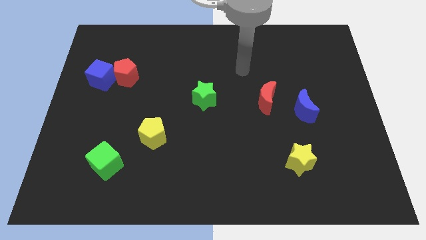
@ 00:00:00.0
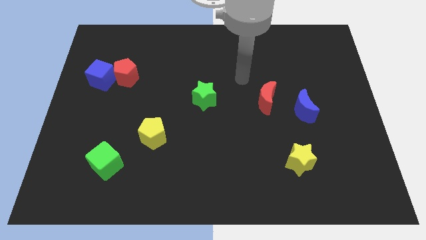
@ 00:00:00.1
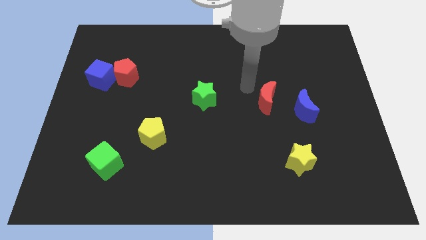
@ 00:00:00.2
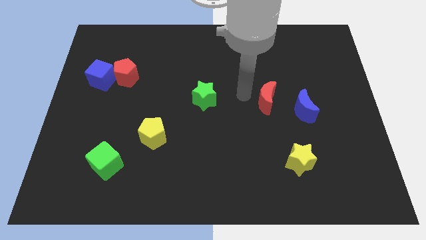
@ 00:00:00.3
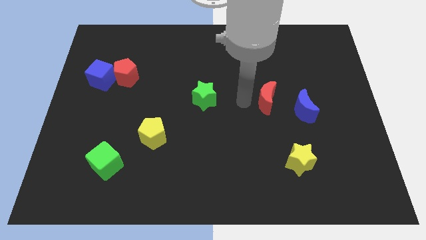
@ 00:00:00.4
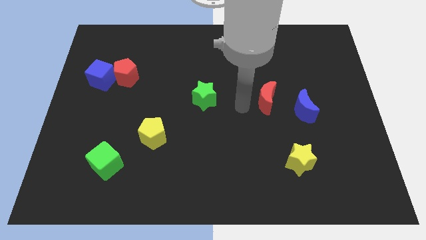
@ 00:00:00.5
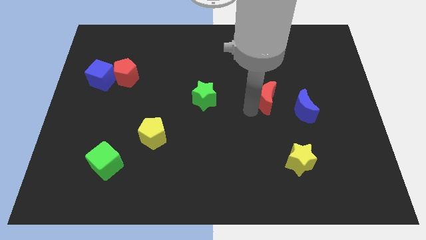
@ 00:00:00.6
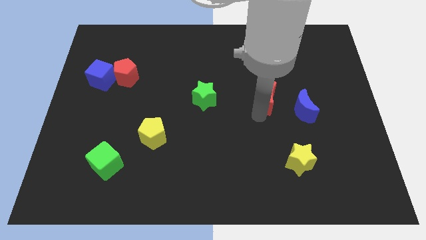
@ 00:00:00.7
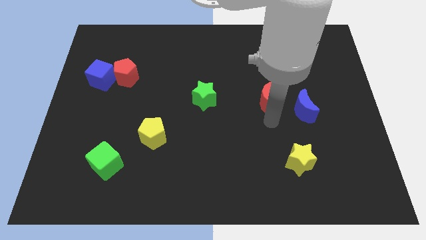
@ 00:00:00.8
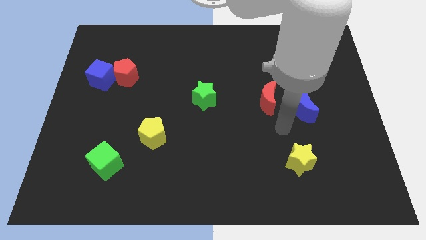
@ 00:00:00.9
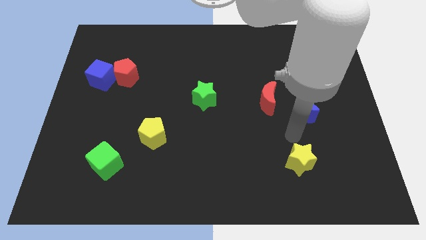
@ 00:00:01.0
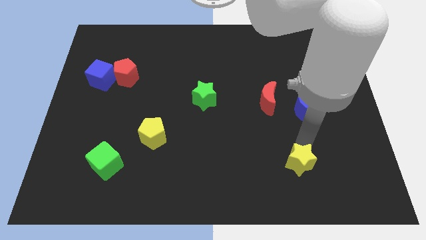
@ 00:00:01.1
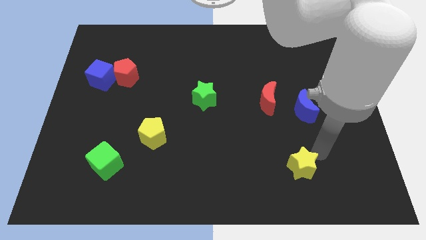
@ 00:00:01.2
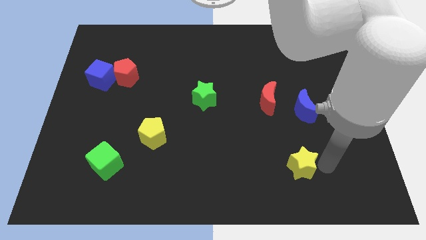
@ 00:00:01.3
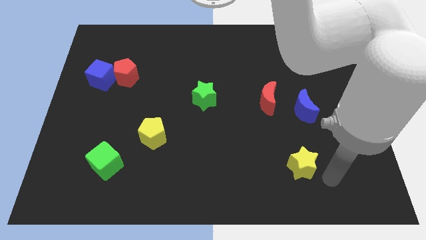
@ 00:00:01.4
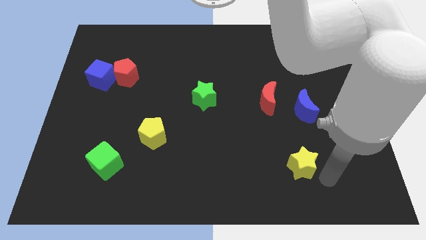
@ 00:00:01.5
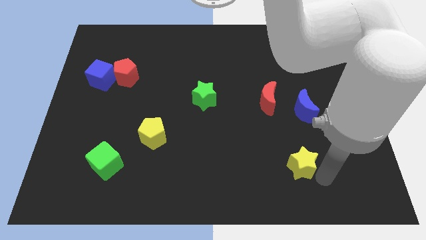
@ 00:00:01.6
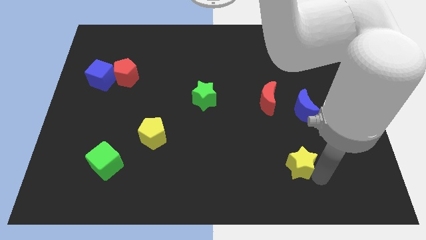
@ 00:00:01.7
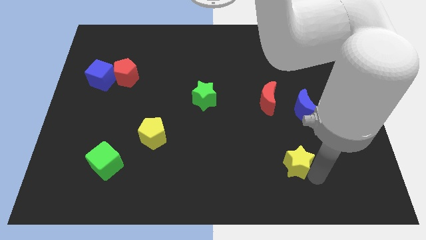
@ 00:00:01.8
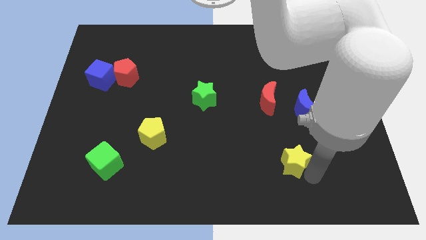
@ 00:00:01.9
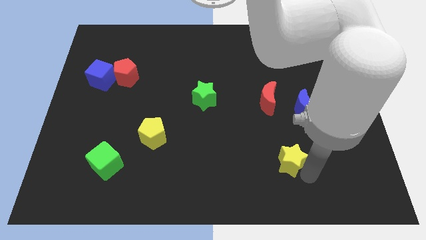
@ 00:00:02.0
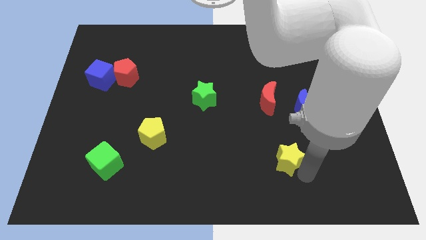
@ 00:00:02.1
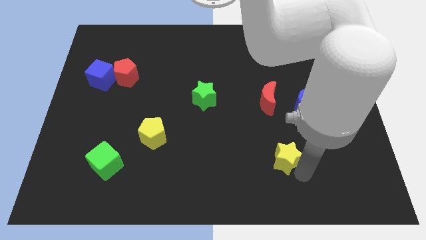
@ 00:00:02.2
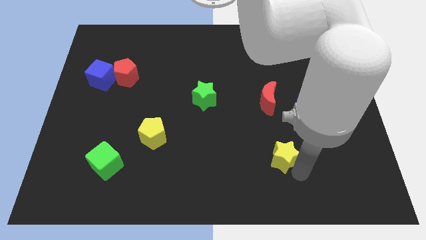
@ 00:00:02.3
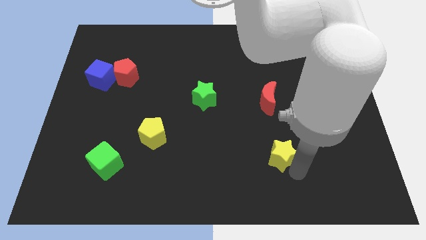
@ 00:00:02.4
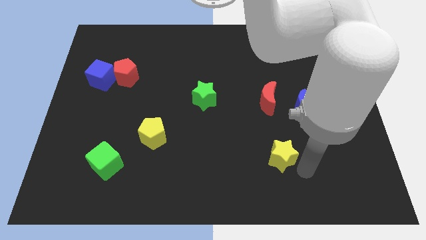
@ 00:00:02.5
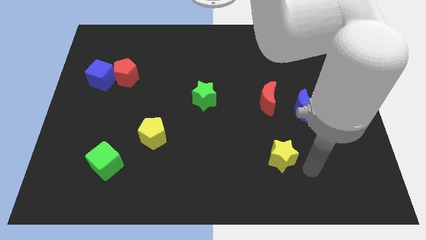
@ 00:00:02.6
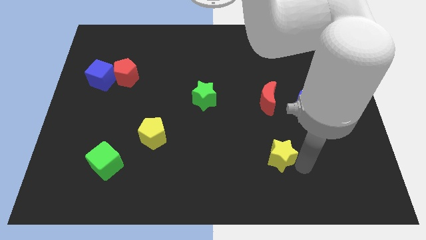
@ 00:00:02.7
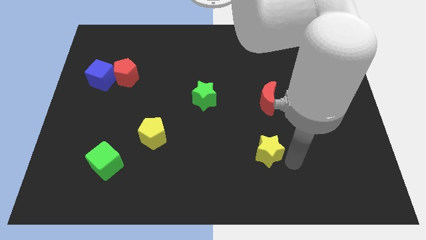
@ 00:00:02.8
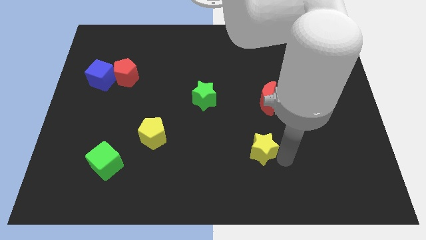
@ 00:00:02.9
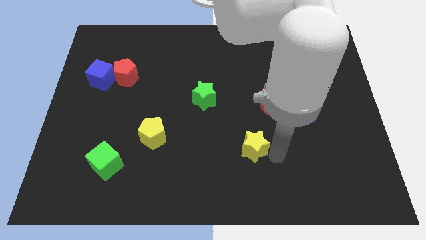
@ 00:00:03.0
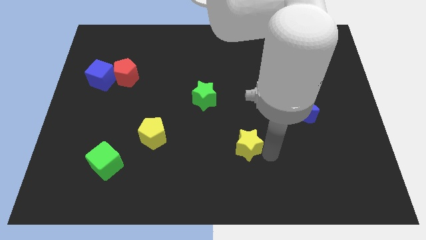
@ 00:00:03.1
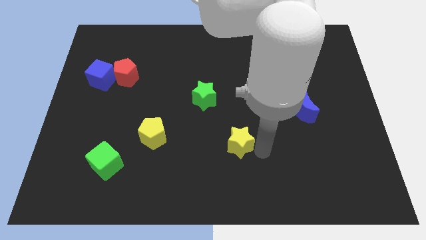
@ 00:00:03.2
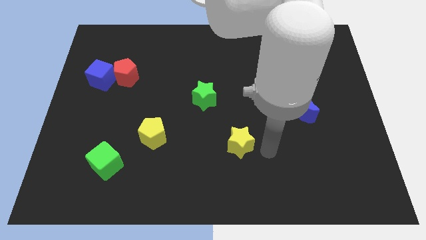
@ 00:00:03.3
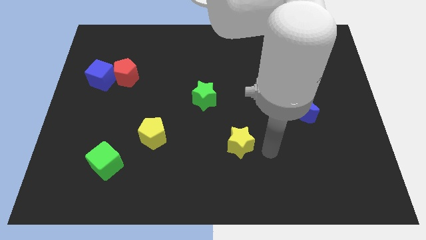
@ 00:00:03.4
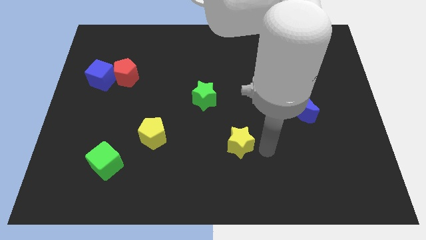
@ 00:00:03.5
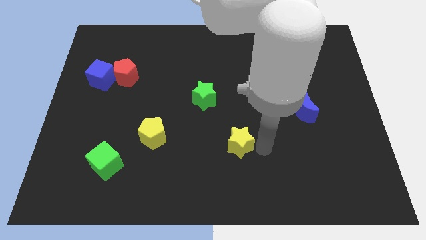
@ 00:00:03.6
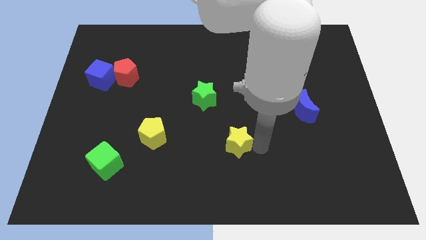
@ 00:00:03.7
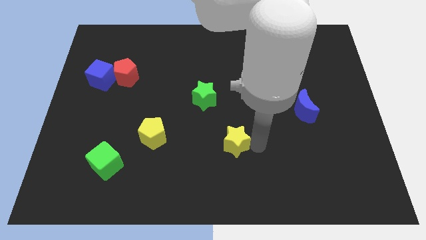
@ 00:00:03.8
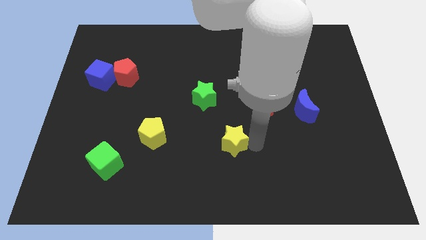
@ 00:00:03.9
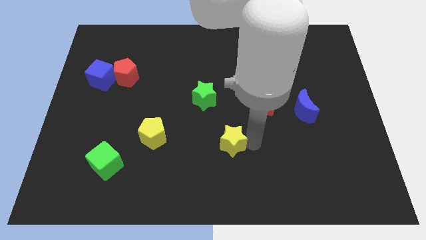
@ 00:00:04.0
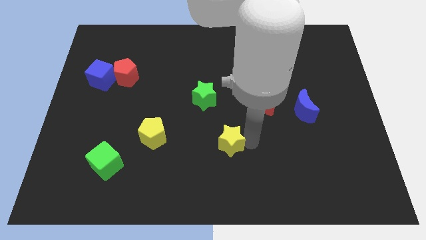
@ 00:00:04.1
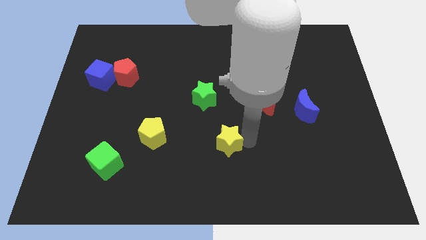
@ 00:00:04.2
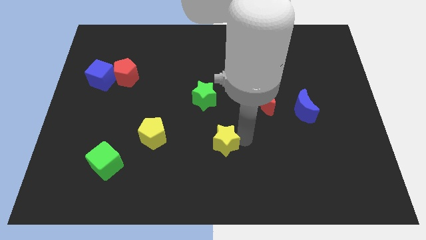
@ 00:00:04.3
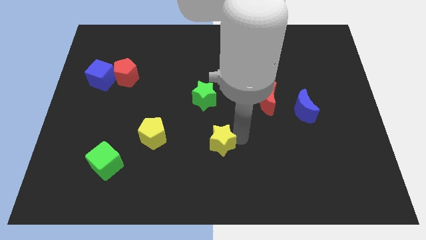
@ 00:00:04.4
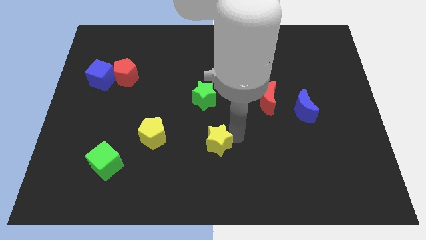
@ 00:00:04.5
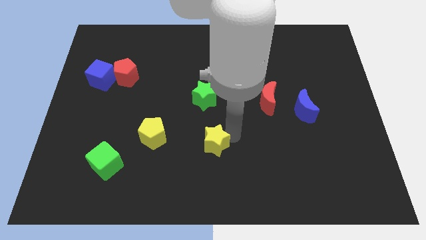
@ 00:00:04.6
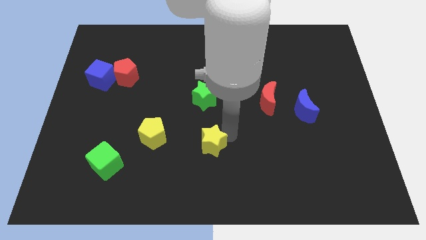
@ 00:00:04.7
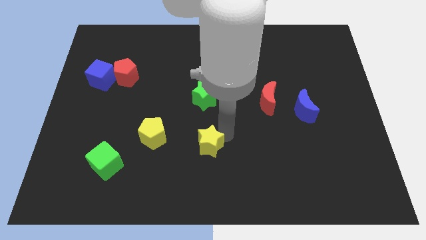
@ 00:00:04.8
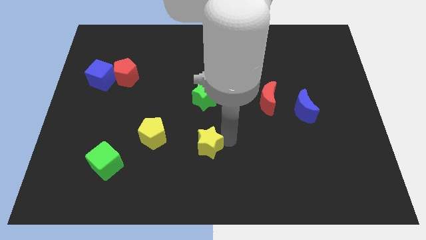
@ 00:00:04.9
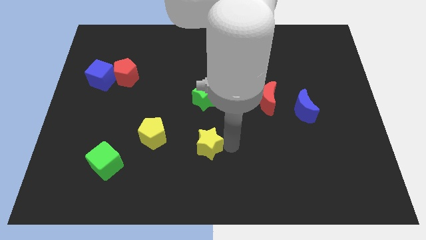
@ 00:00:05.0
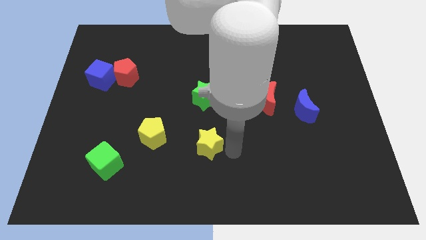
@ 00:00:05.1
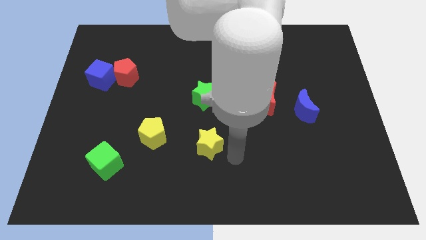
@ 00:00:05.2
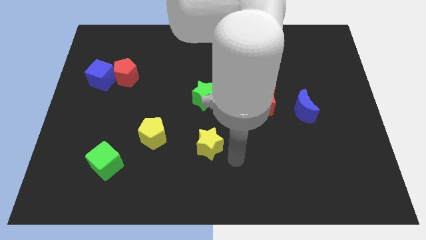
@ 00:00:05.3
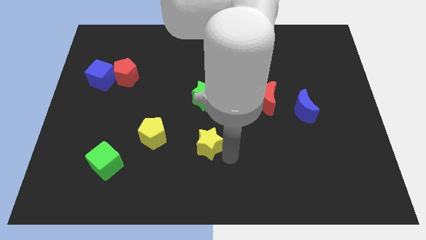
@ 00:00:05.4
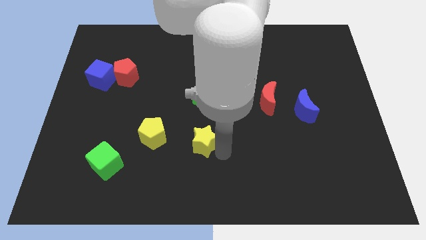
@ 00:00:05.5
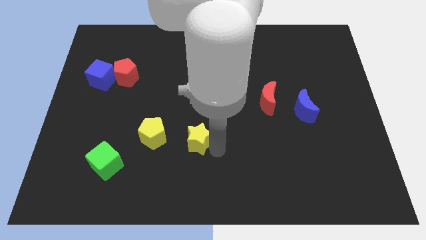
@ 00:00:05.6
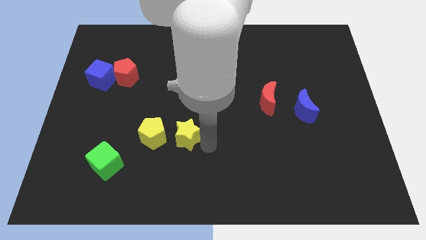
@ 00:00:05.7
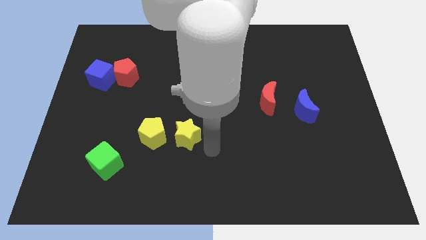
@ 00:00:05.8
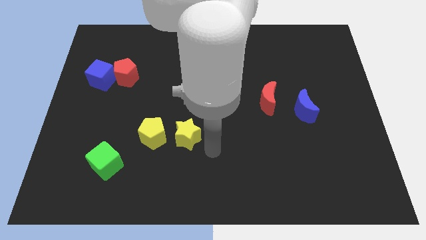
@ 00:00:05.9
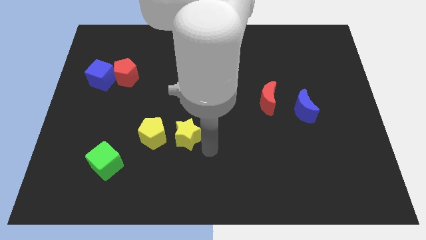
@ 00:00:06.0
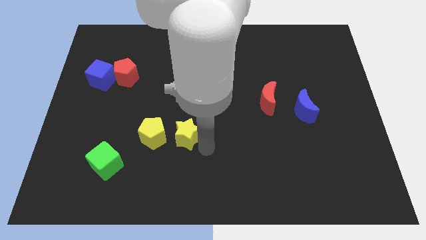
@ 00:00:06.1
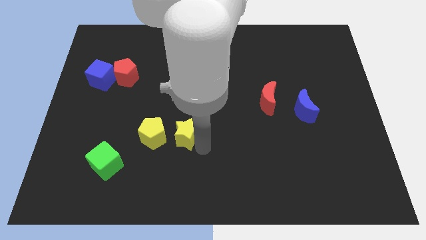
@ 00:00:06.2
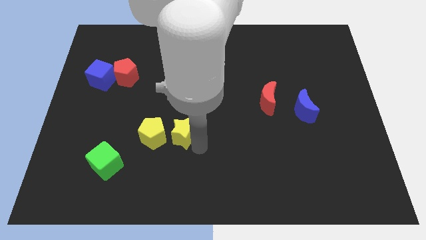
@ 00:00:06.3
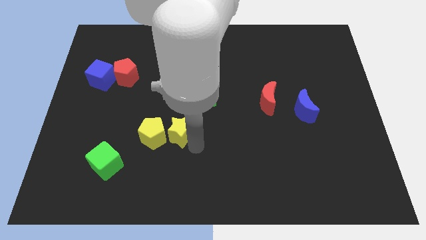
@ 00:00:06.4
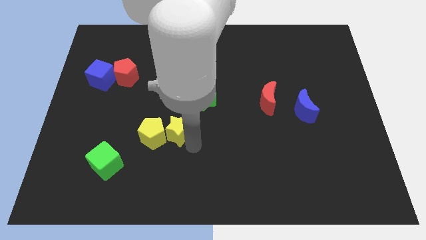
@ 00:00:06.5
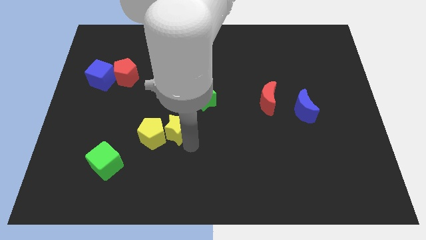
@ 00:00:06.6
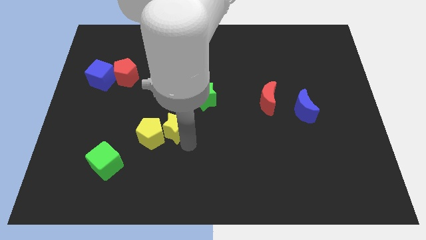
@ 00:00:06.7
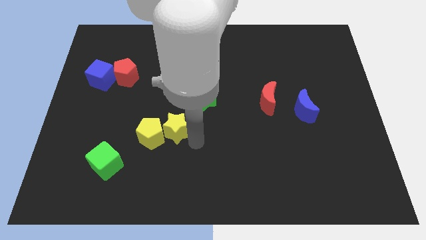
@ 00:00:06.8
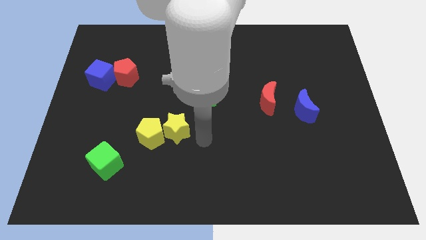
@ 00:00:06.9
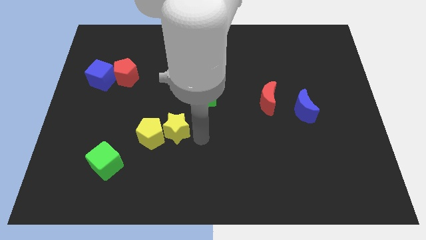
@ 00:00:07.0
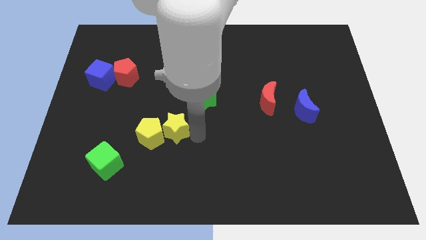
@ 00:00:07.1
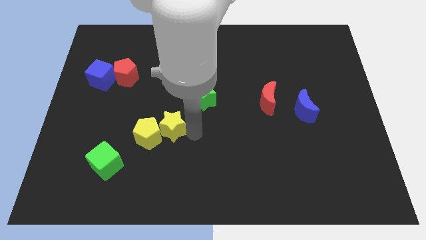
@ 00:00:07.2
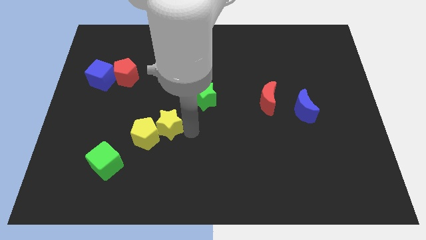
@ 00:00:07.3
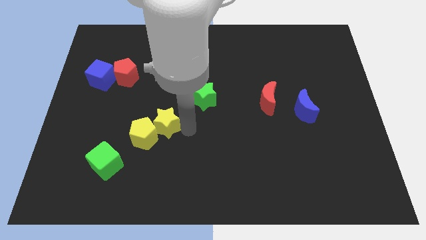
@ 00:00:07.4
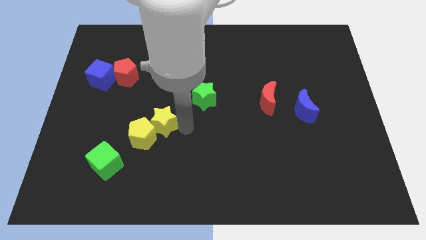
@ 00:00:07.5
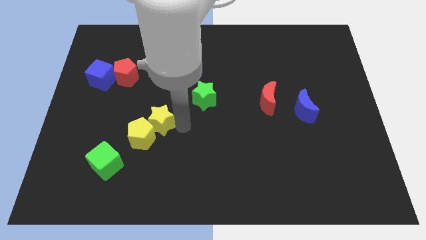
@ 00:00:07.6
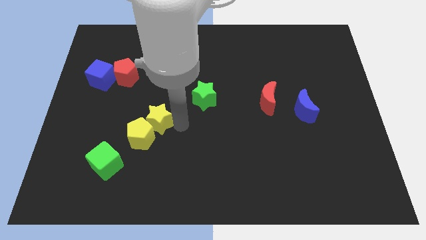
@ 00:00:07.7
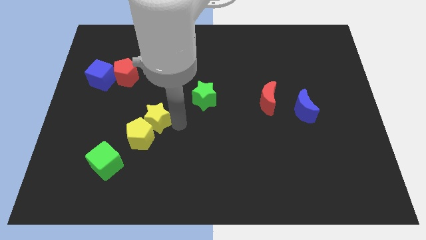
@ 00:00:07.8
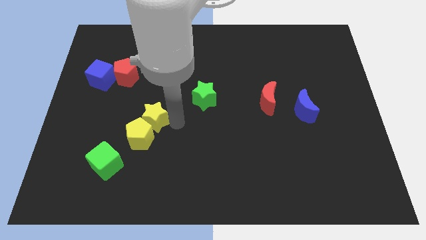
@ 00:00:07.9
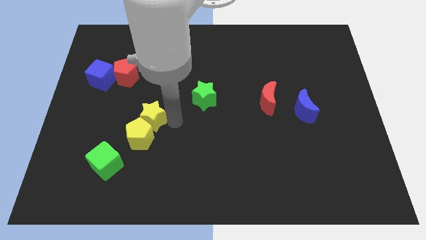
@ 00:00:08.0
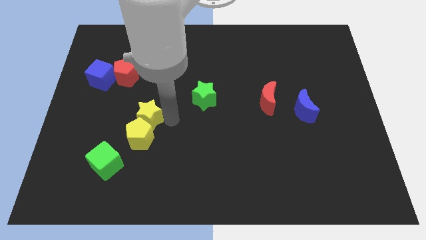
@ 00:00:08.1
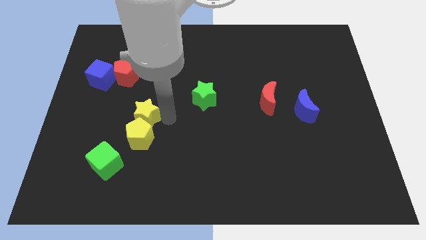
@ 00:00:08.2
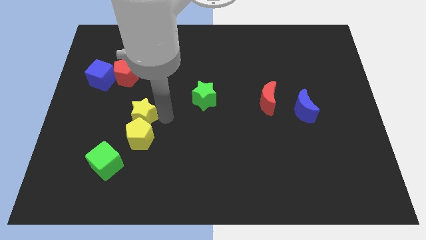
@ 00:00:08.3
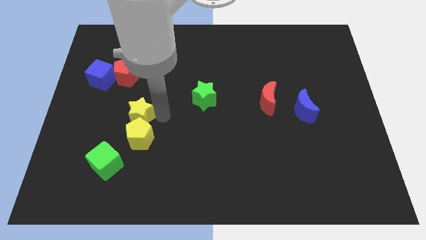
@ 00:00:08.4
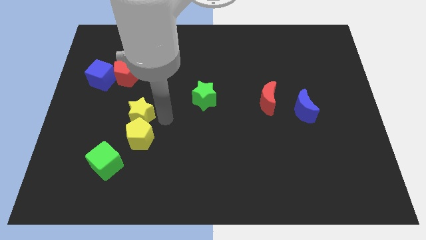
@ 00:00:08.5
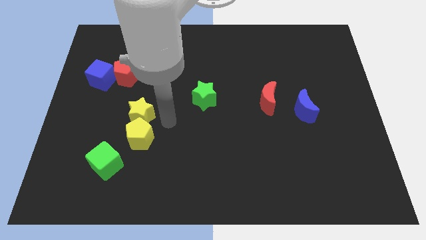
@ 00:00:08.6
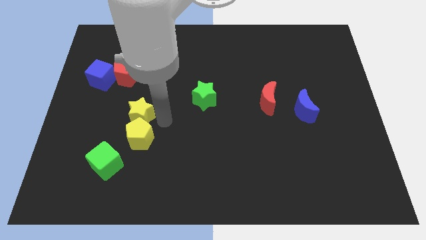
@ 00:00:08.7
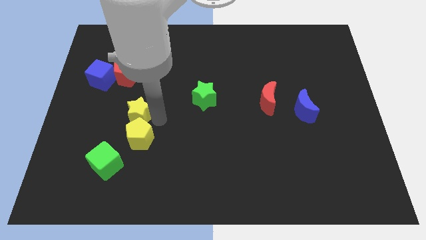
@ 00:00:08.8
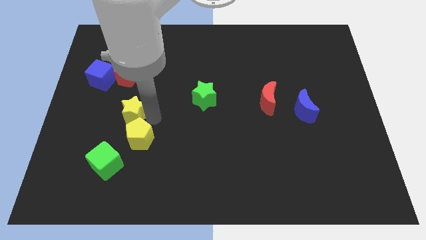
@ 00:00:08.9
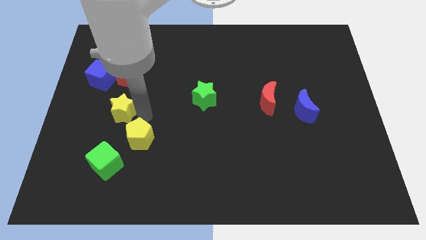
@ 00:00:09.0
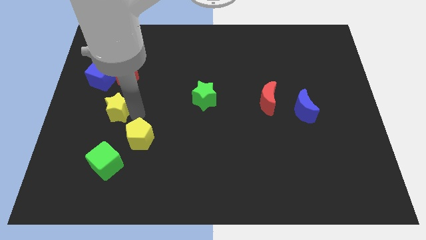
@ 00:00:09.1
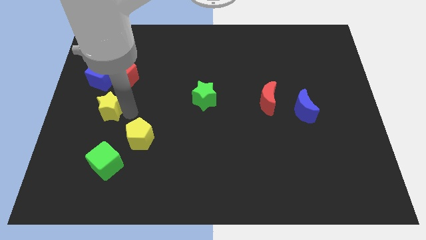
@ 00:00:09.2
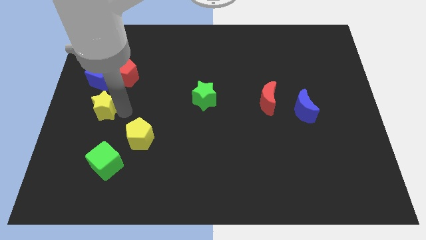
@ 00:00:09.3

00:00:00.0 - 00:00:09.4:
move the yellow star to the center left
